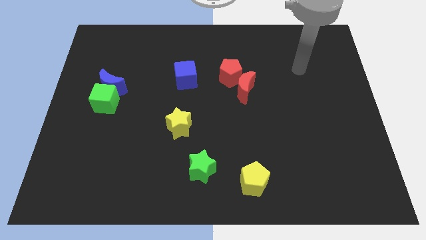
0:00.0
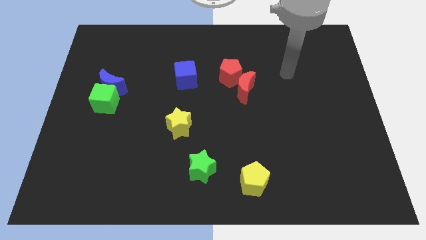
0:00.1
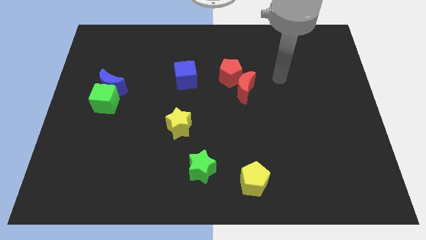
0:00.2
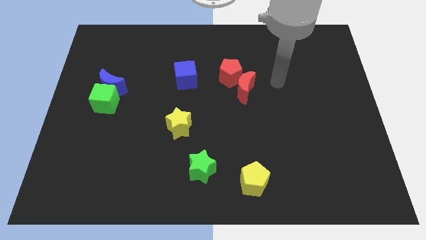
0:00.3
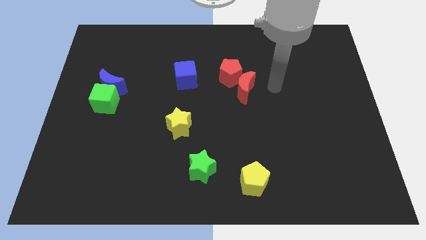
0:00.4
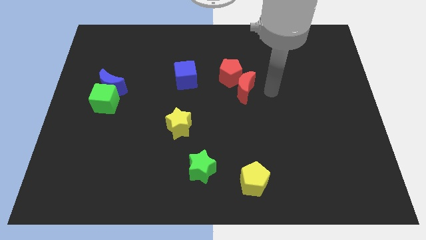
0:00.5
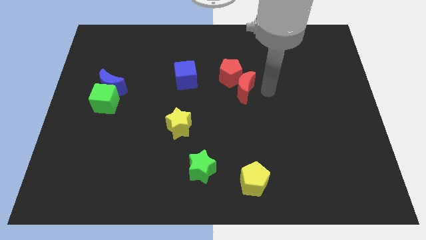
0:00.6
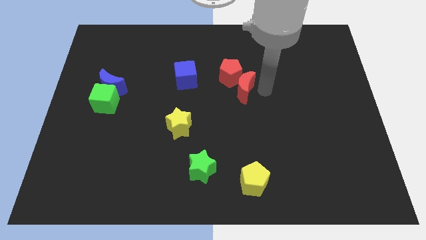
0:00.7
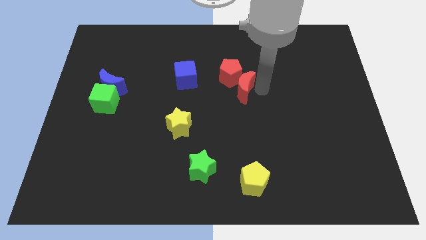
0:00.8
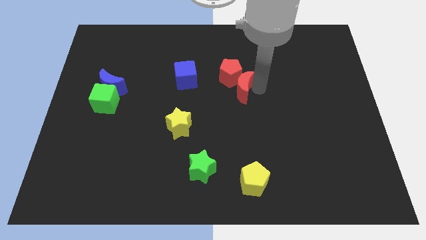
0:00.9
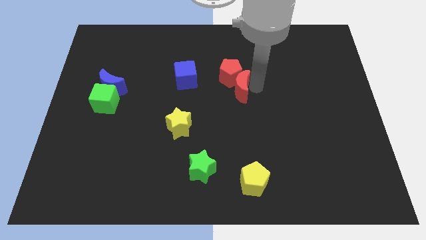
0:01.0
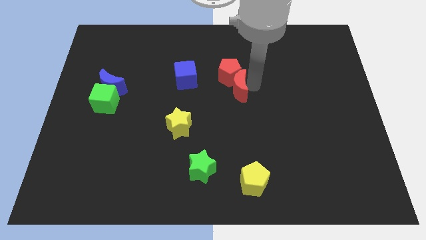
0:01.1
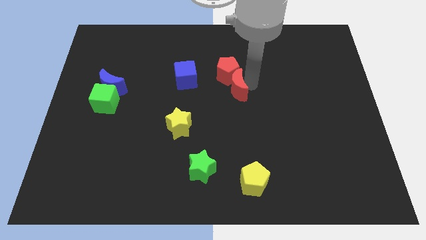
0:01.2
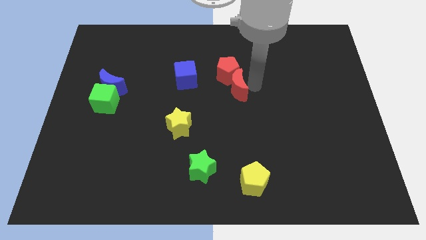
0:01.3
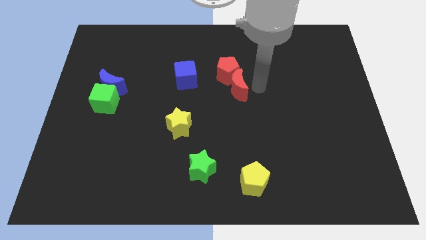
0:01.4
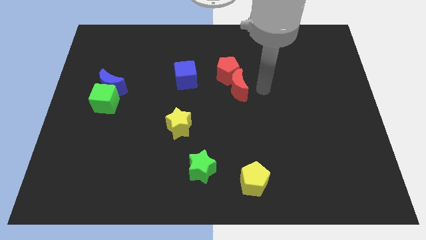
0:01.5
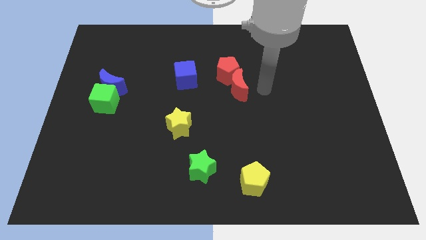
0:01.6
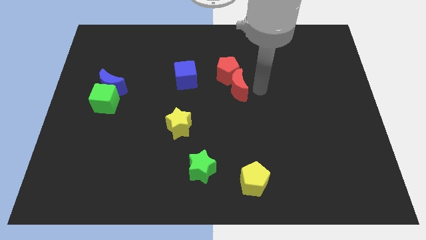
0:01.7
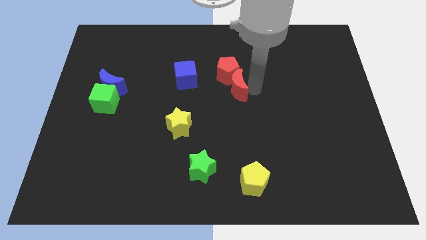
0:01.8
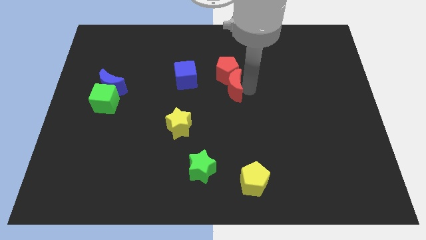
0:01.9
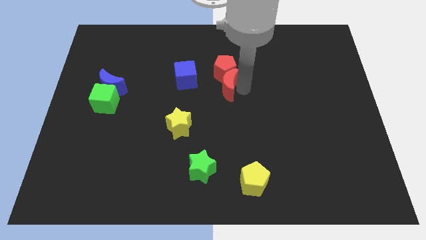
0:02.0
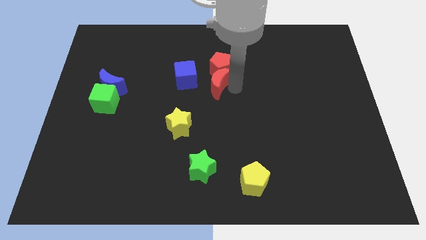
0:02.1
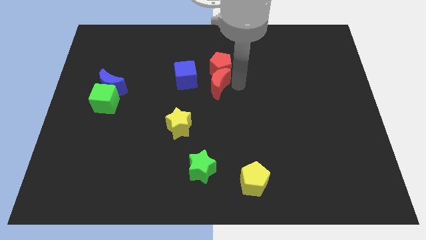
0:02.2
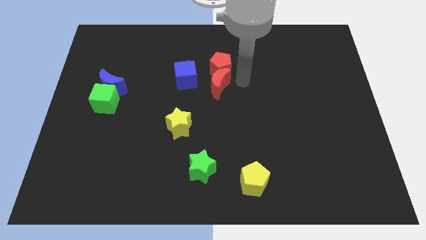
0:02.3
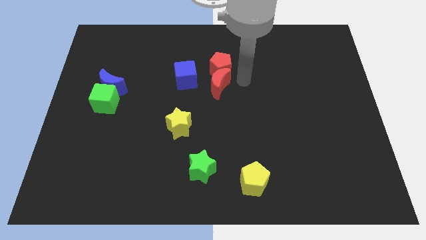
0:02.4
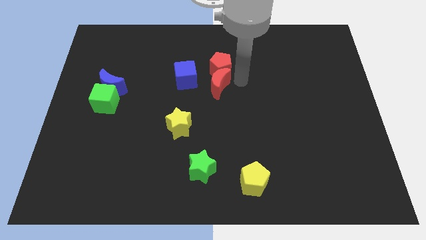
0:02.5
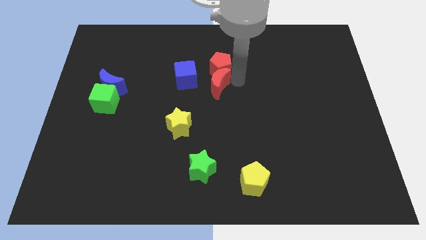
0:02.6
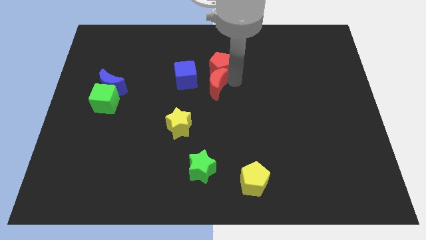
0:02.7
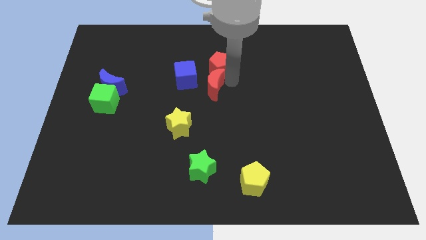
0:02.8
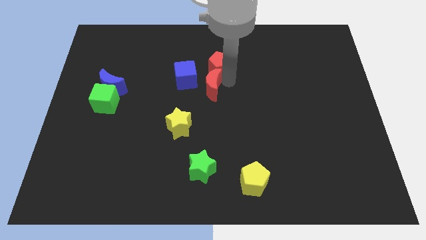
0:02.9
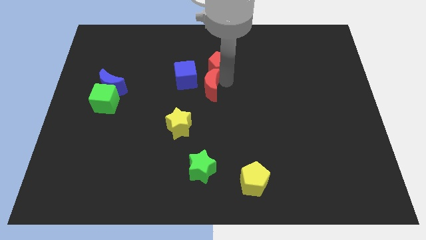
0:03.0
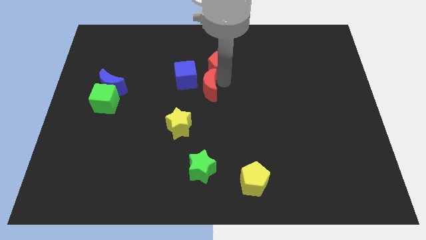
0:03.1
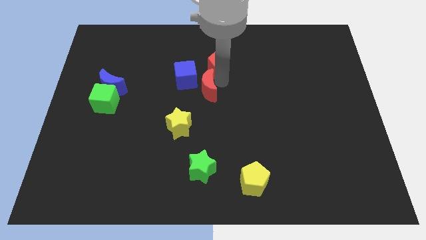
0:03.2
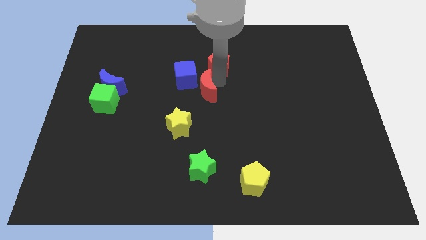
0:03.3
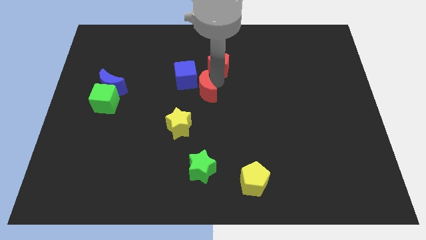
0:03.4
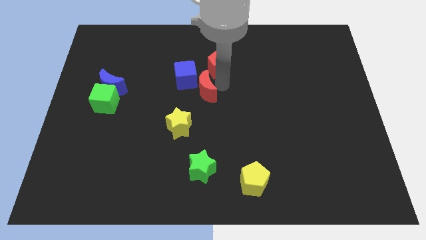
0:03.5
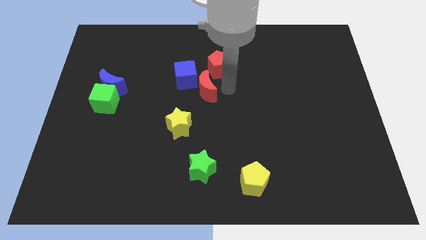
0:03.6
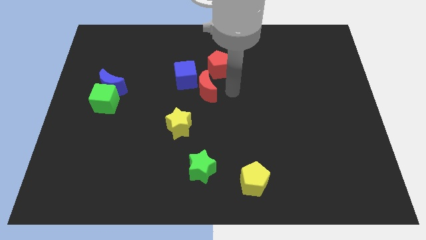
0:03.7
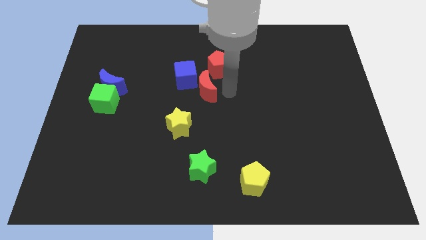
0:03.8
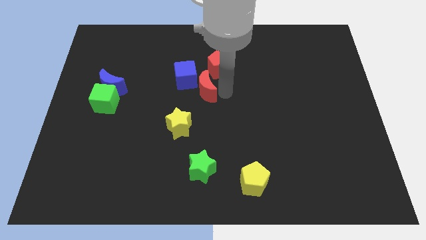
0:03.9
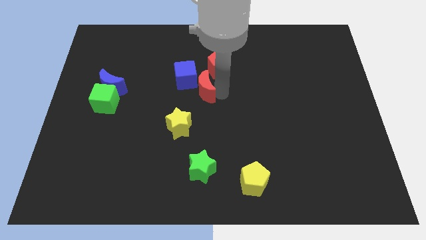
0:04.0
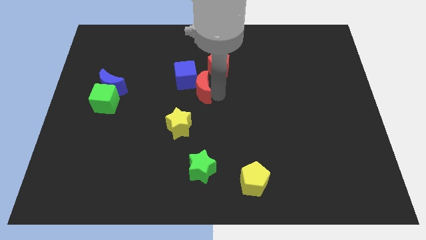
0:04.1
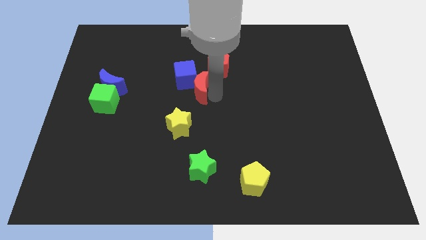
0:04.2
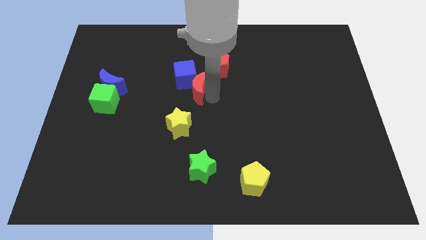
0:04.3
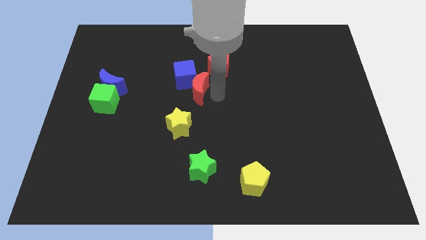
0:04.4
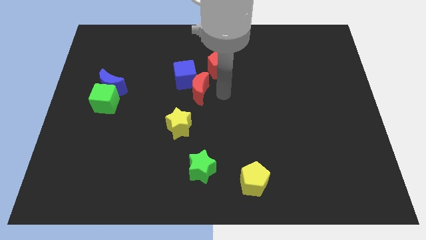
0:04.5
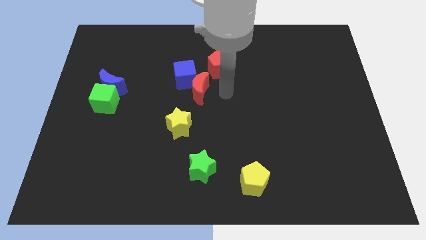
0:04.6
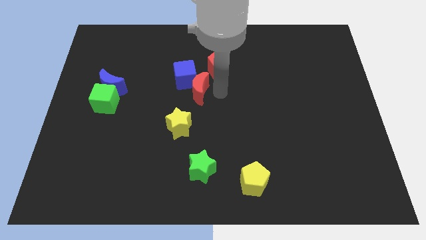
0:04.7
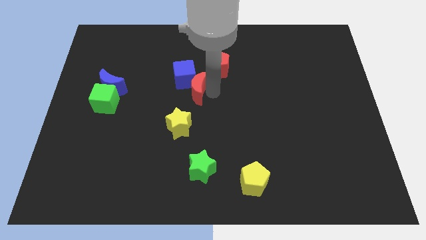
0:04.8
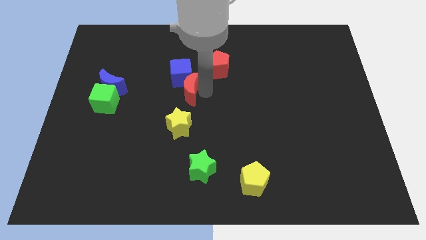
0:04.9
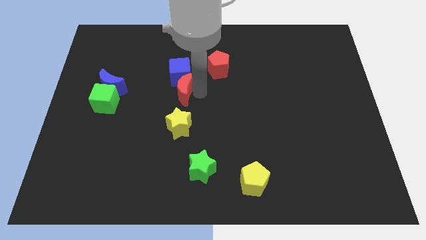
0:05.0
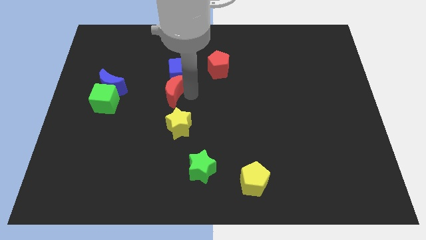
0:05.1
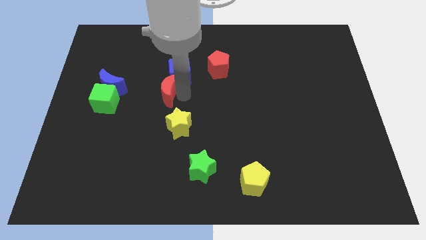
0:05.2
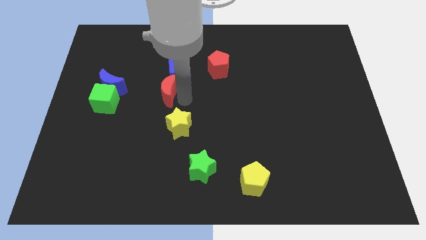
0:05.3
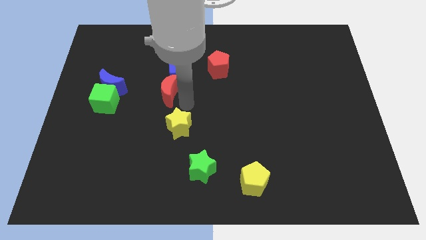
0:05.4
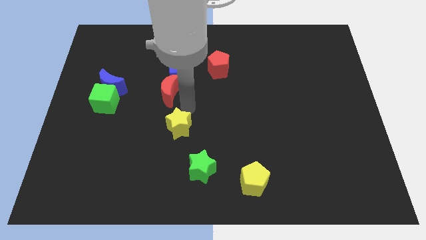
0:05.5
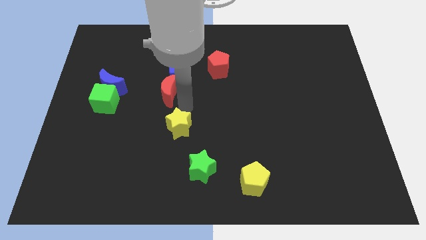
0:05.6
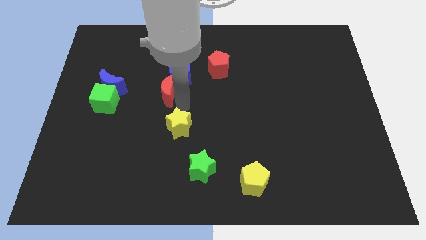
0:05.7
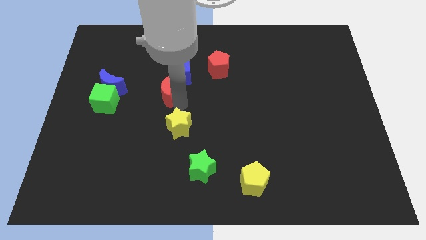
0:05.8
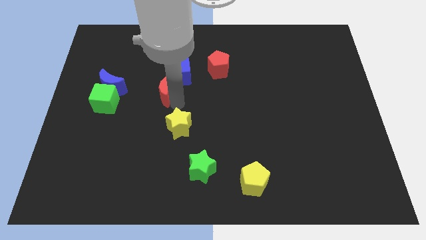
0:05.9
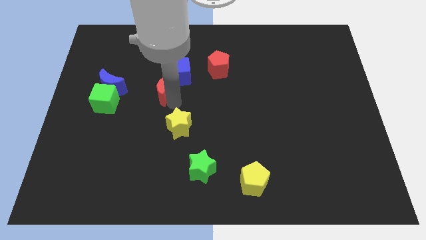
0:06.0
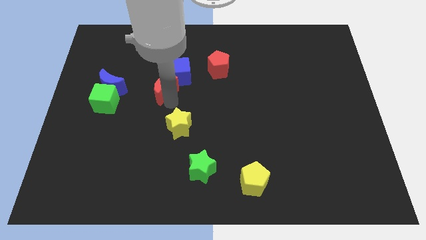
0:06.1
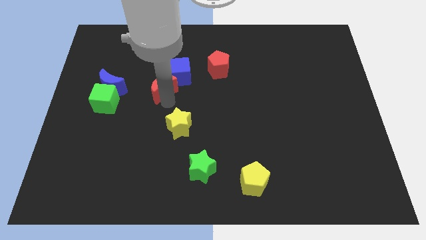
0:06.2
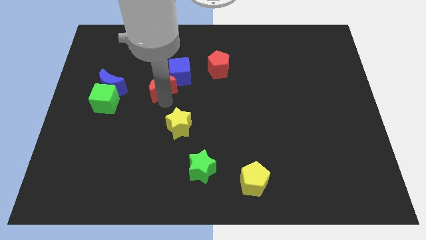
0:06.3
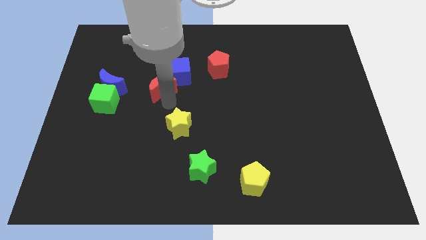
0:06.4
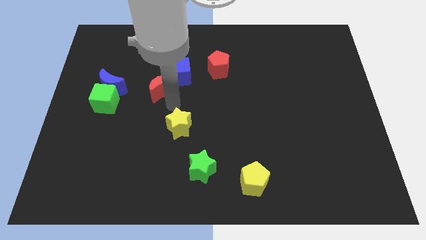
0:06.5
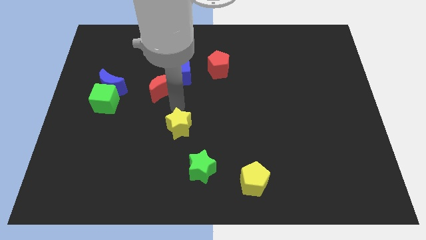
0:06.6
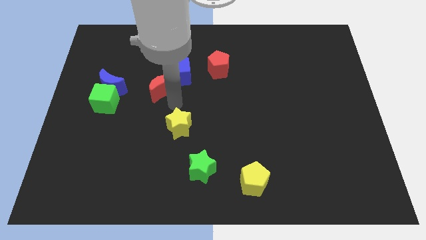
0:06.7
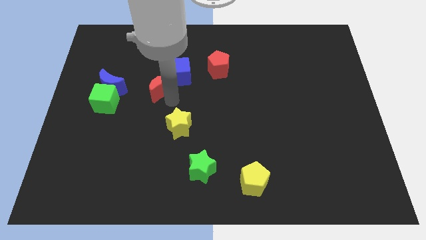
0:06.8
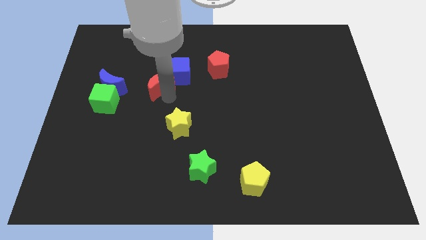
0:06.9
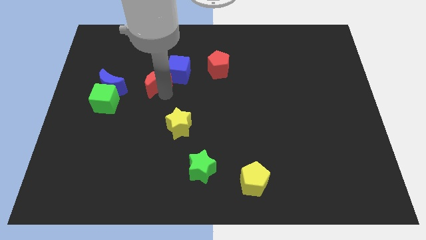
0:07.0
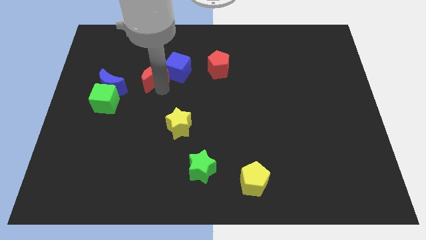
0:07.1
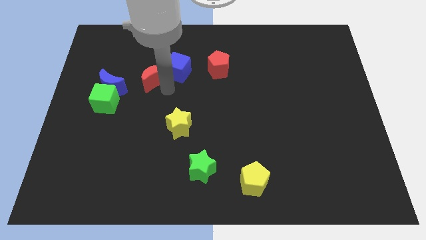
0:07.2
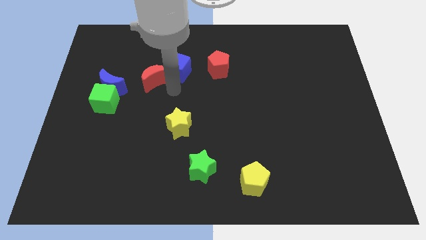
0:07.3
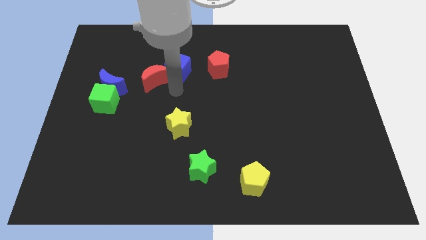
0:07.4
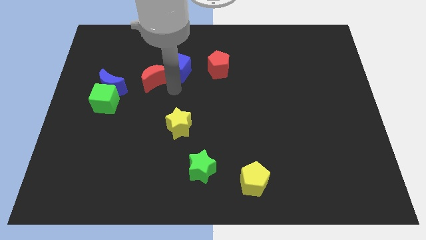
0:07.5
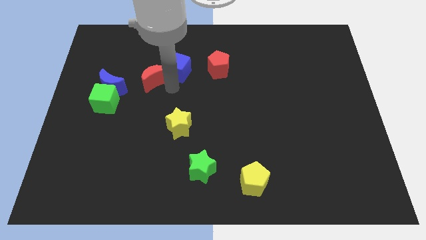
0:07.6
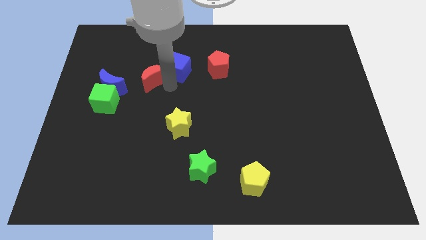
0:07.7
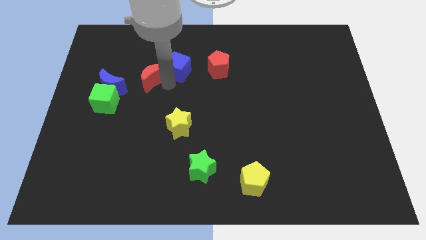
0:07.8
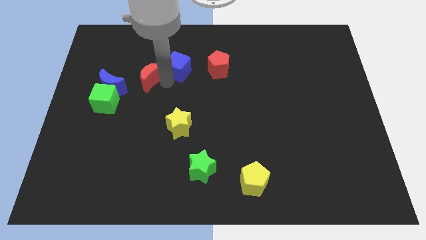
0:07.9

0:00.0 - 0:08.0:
move the red moon to the top right of the blue moon
